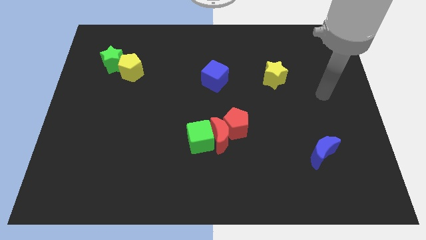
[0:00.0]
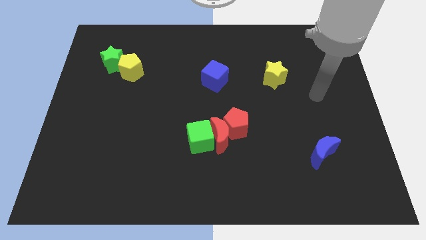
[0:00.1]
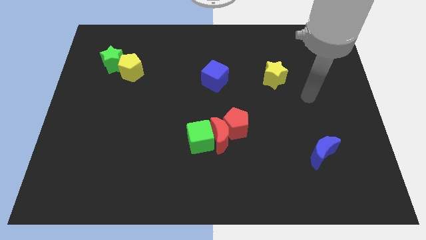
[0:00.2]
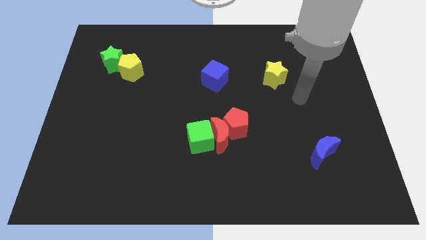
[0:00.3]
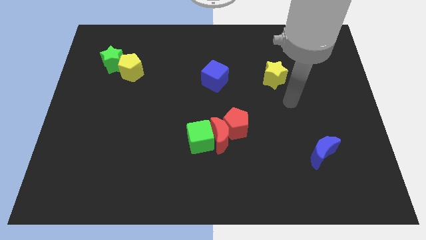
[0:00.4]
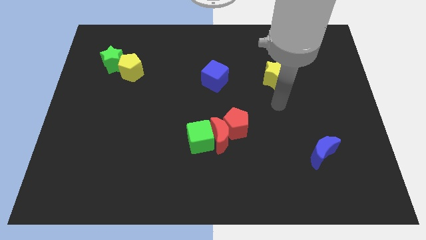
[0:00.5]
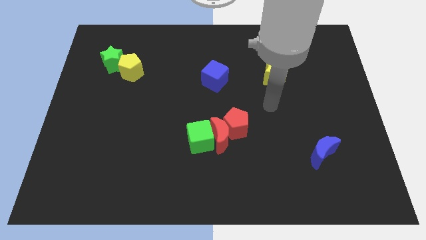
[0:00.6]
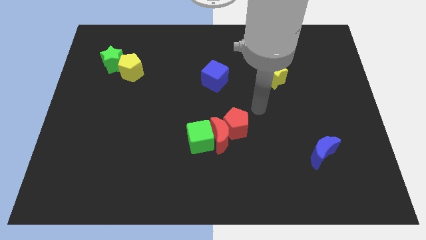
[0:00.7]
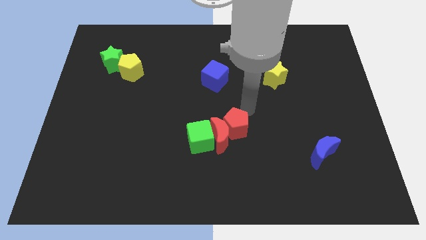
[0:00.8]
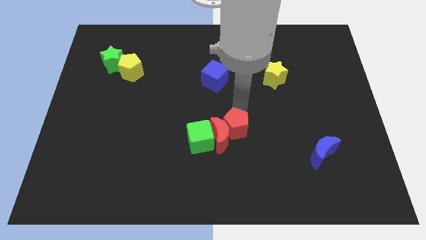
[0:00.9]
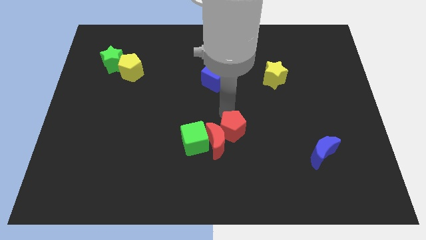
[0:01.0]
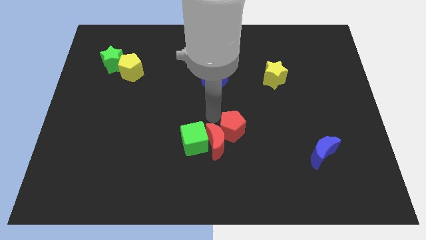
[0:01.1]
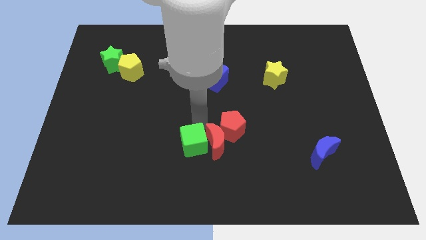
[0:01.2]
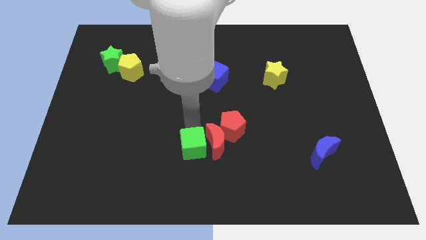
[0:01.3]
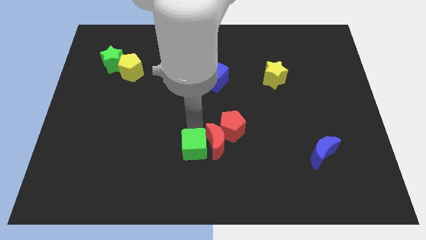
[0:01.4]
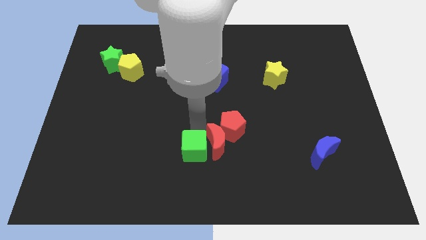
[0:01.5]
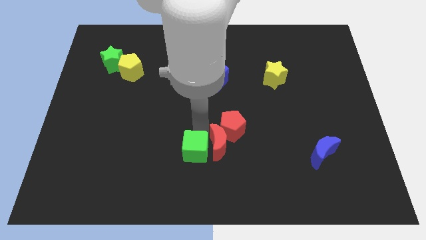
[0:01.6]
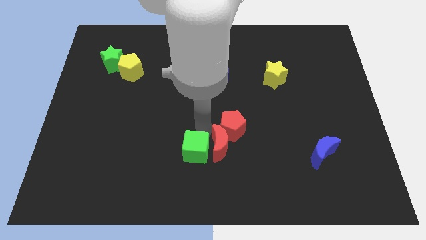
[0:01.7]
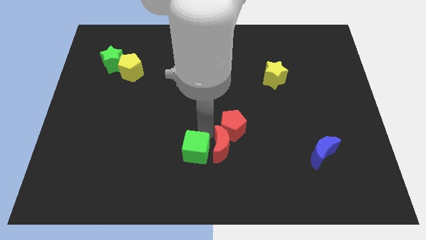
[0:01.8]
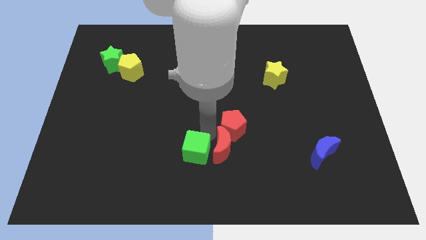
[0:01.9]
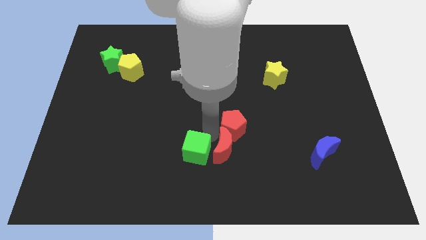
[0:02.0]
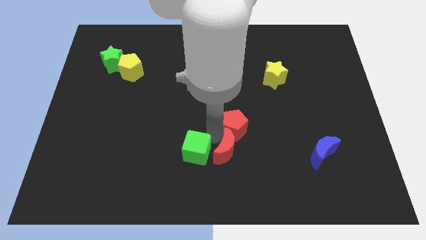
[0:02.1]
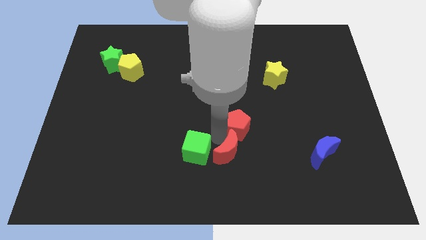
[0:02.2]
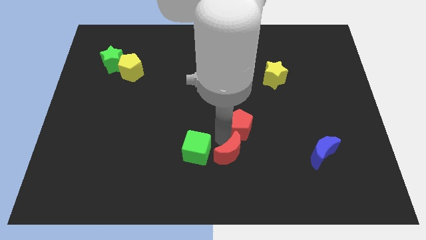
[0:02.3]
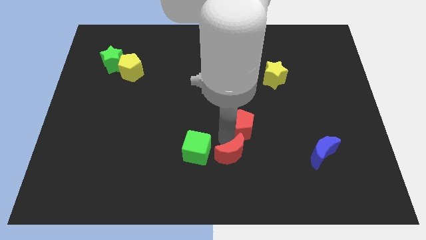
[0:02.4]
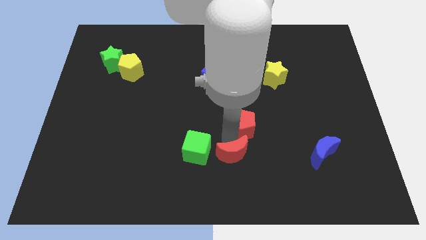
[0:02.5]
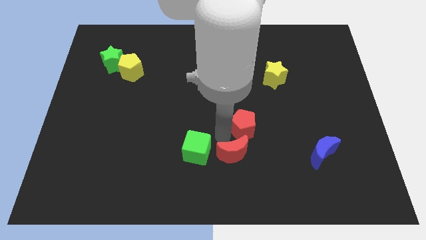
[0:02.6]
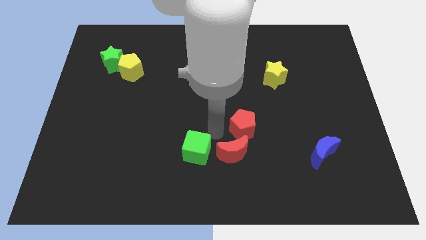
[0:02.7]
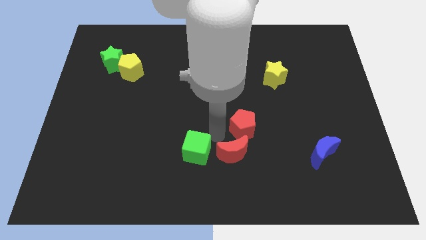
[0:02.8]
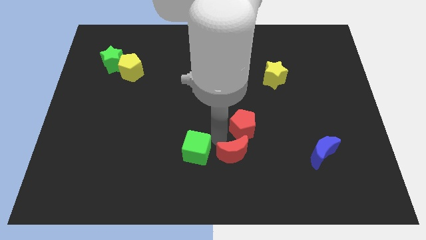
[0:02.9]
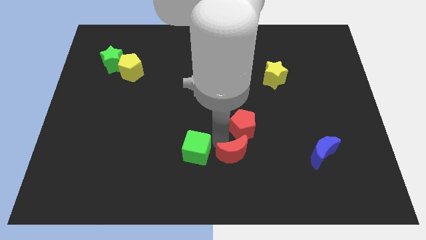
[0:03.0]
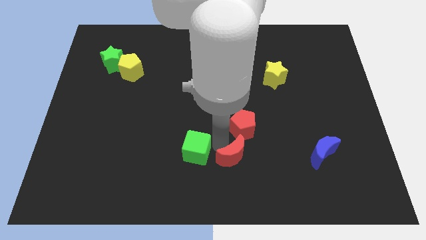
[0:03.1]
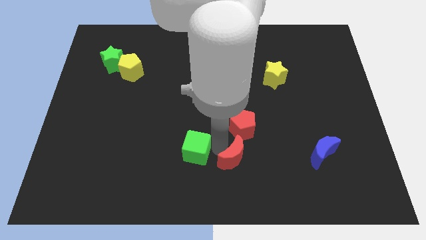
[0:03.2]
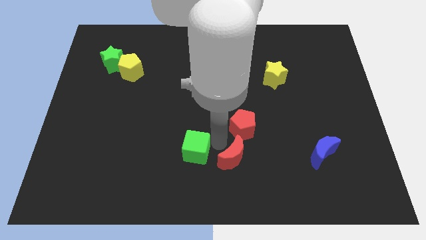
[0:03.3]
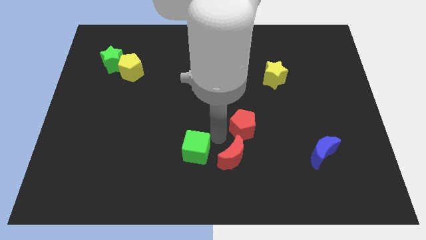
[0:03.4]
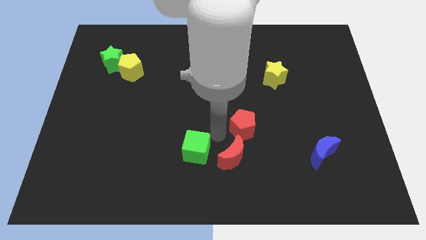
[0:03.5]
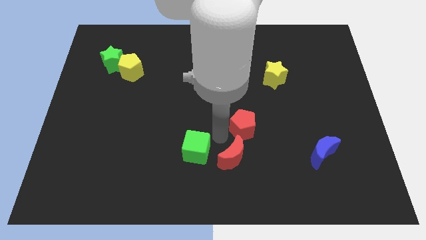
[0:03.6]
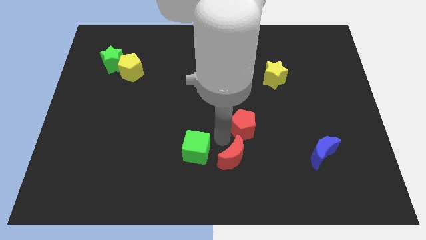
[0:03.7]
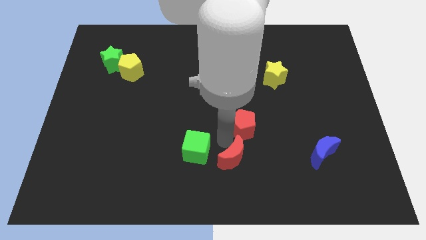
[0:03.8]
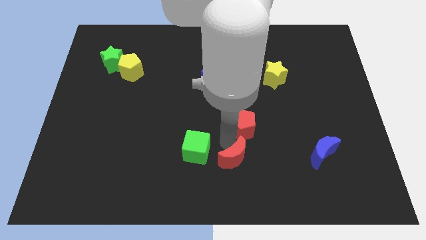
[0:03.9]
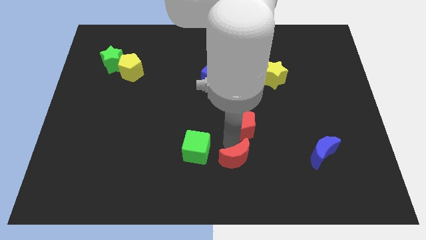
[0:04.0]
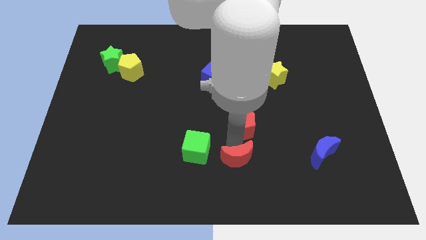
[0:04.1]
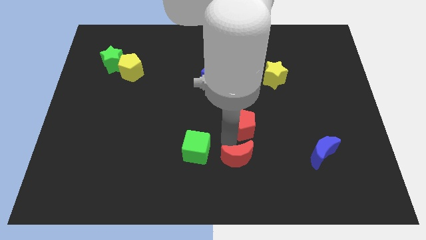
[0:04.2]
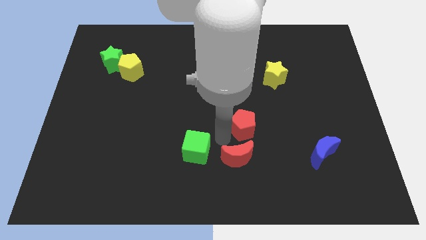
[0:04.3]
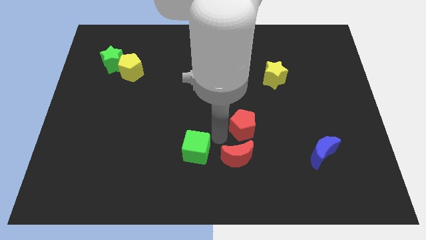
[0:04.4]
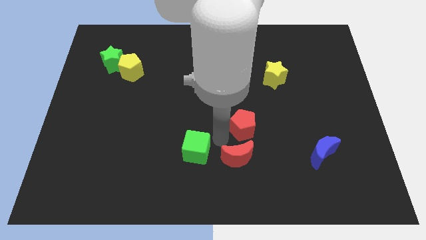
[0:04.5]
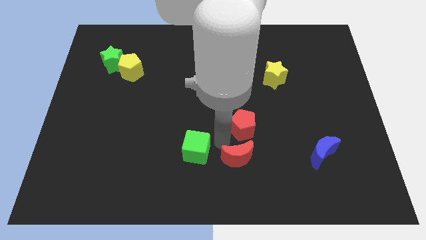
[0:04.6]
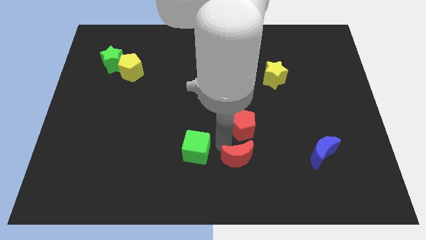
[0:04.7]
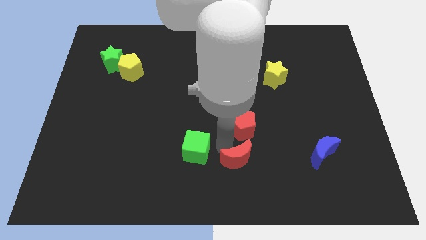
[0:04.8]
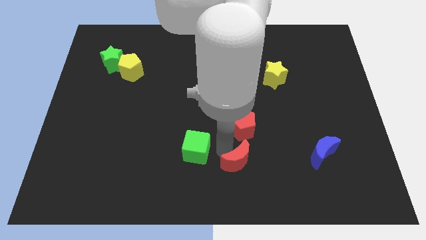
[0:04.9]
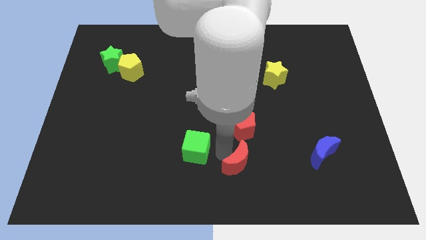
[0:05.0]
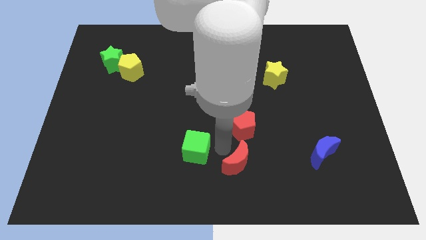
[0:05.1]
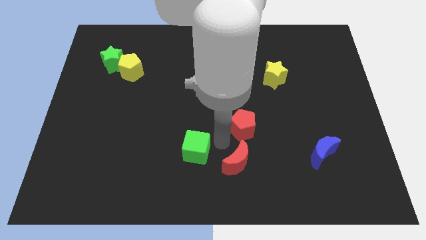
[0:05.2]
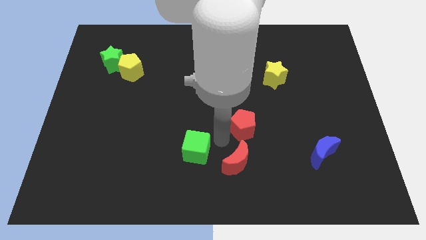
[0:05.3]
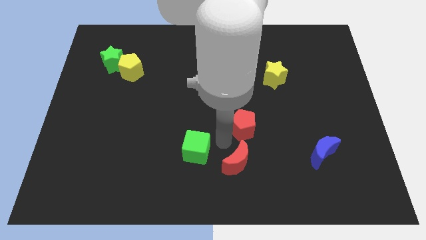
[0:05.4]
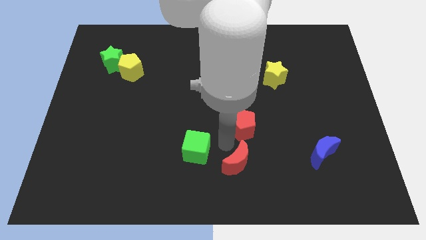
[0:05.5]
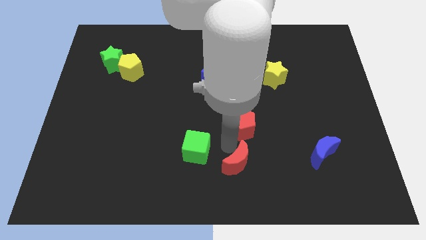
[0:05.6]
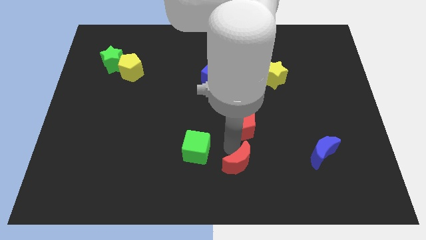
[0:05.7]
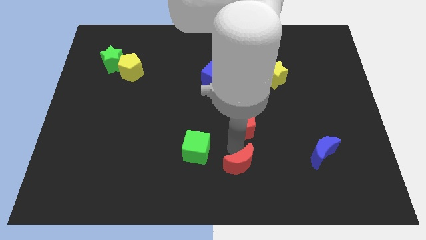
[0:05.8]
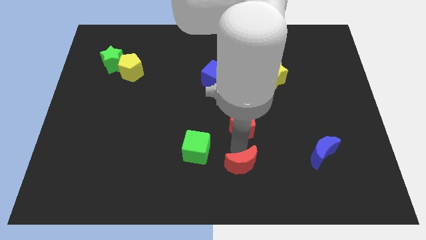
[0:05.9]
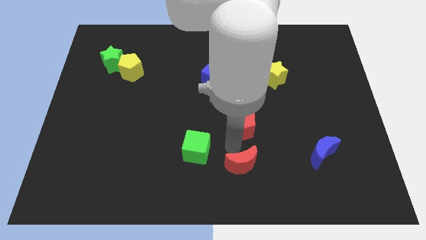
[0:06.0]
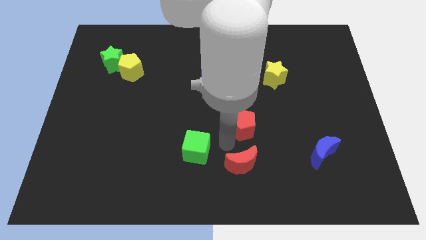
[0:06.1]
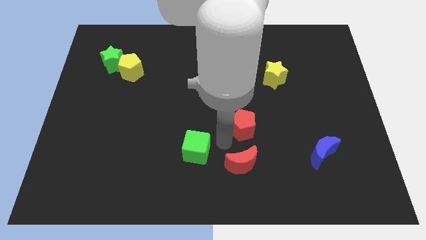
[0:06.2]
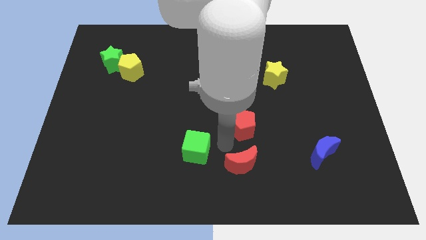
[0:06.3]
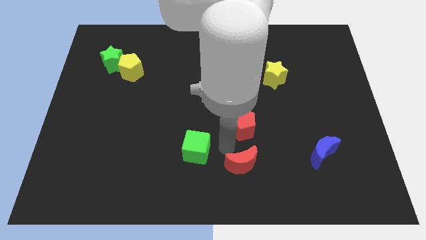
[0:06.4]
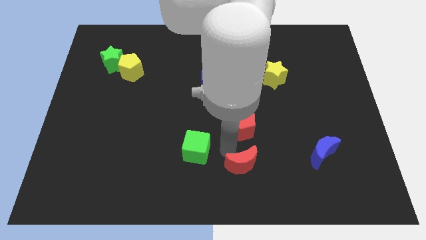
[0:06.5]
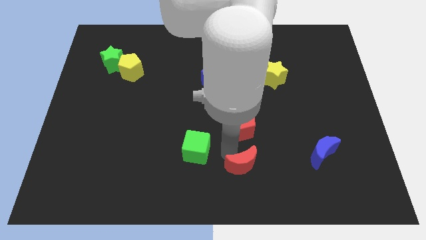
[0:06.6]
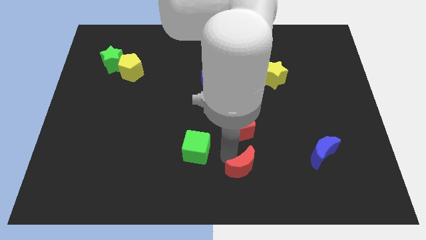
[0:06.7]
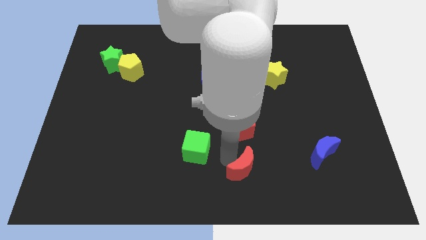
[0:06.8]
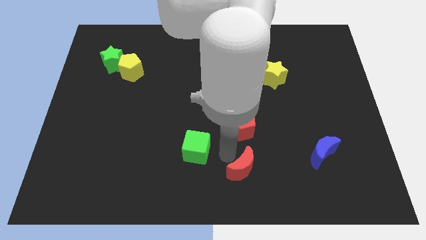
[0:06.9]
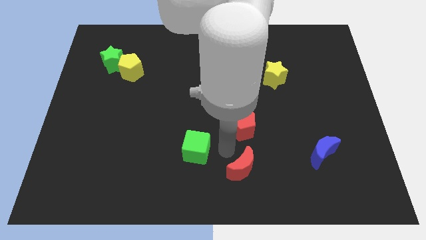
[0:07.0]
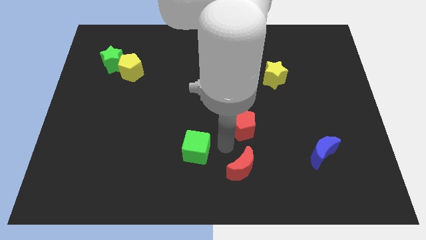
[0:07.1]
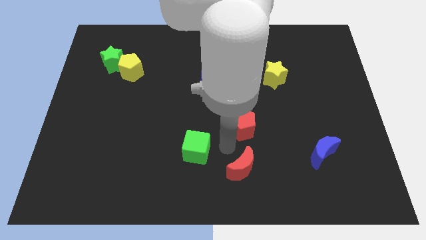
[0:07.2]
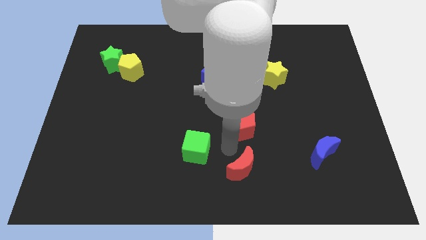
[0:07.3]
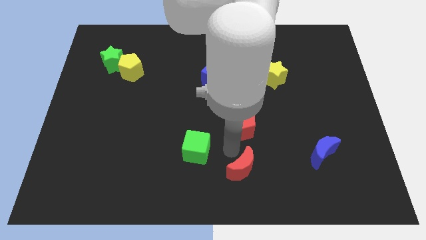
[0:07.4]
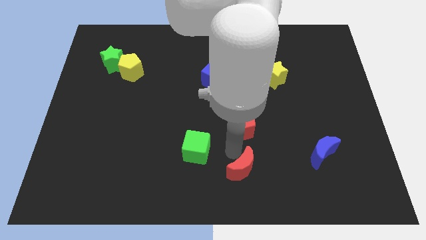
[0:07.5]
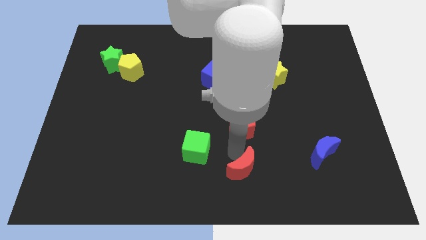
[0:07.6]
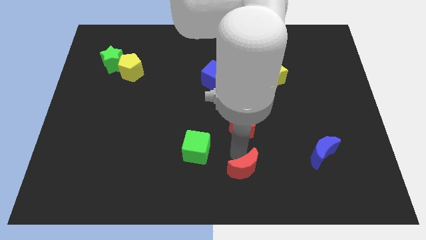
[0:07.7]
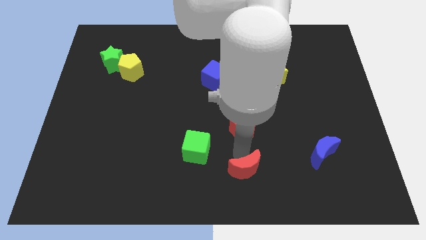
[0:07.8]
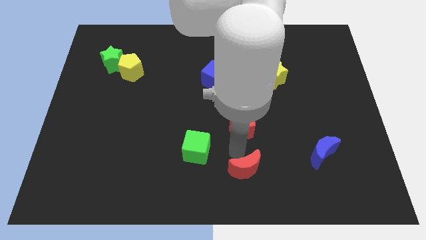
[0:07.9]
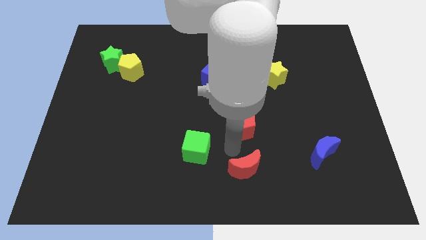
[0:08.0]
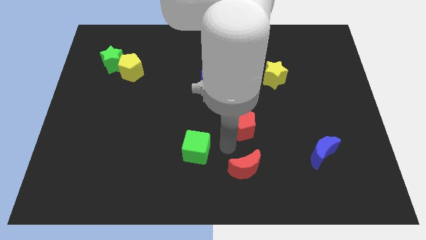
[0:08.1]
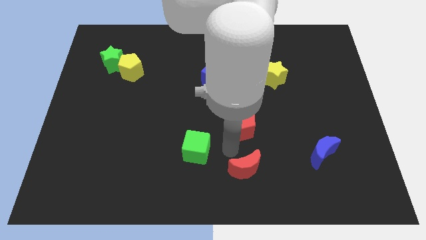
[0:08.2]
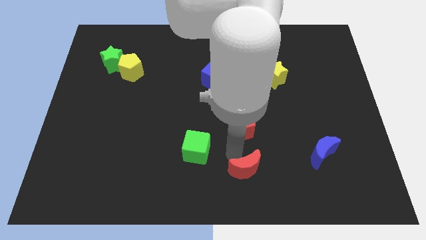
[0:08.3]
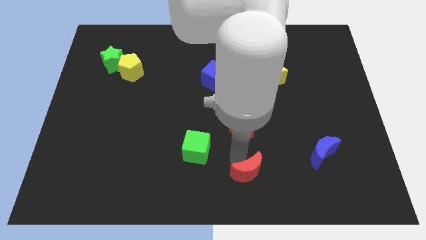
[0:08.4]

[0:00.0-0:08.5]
move the red moon away from the red pentagon and green cube

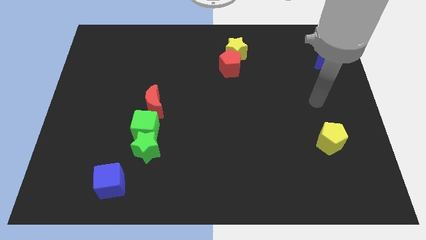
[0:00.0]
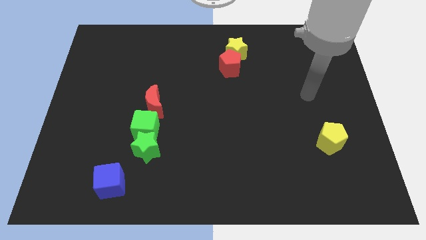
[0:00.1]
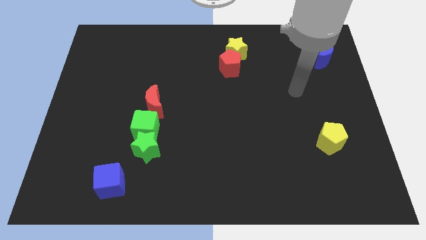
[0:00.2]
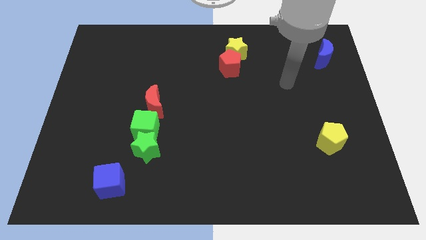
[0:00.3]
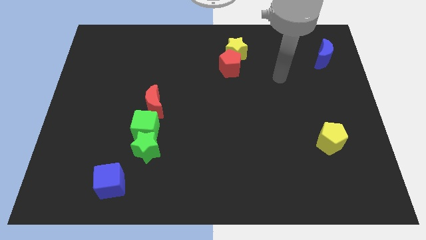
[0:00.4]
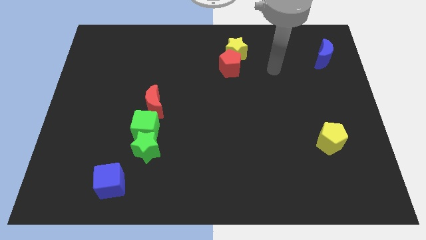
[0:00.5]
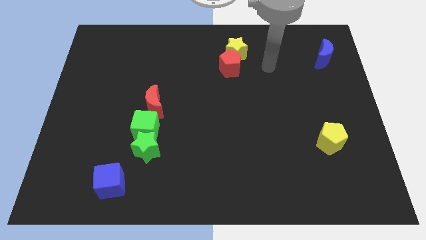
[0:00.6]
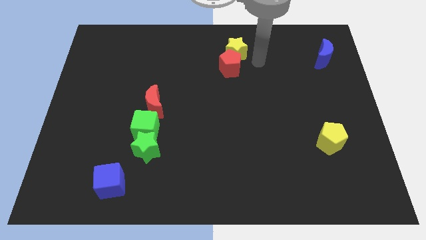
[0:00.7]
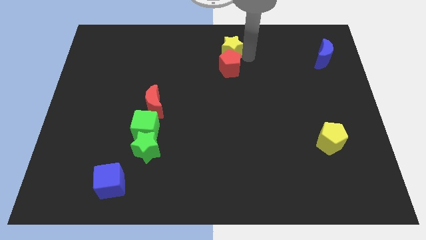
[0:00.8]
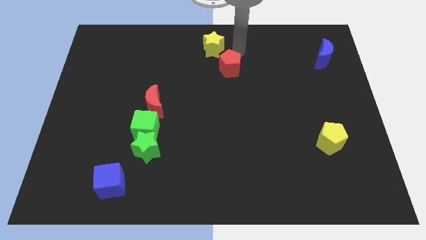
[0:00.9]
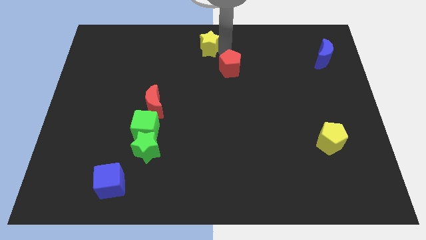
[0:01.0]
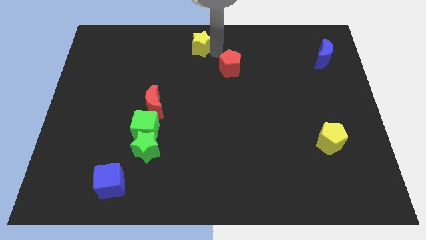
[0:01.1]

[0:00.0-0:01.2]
pull the red pentagon apart from the yellow star
